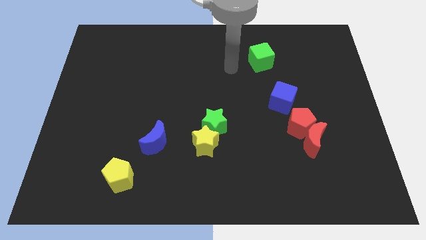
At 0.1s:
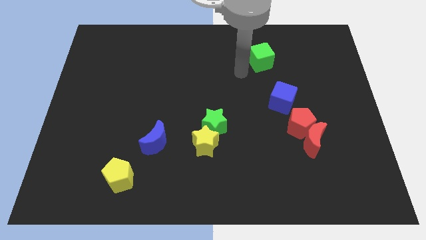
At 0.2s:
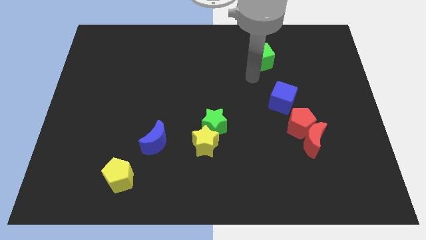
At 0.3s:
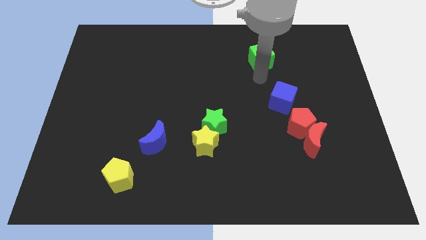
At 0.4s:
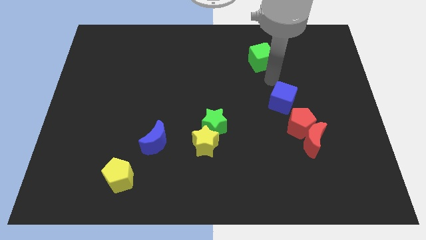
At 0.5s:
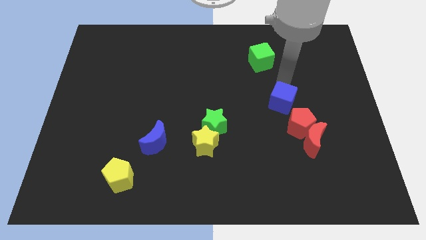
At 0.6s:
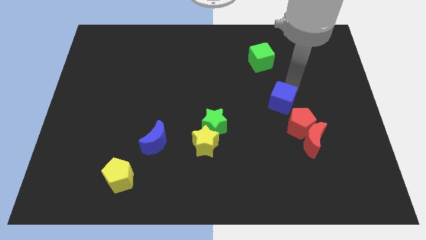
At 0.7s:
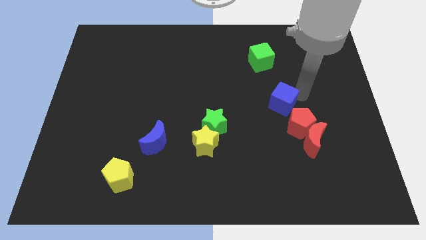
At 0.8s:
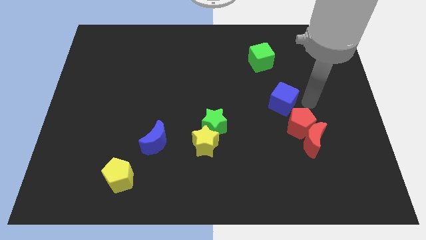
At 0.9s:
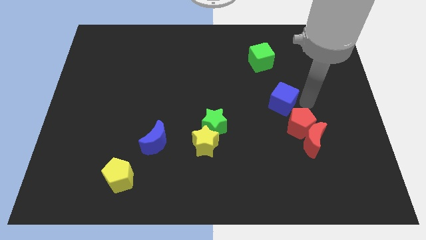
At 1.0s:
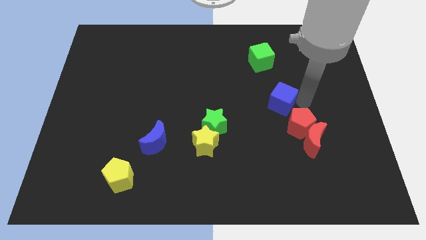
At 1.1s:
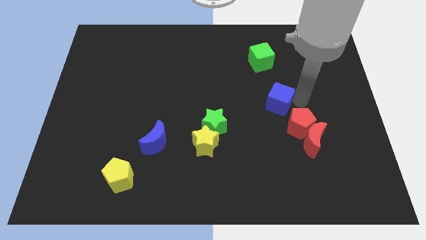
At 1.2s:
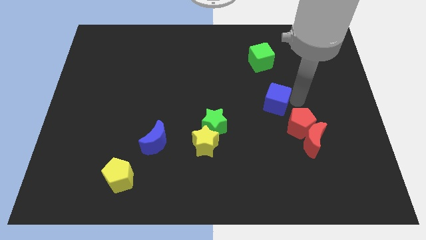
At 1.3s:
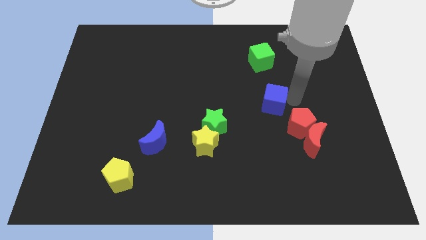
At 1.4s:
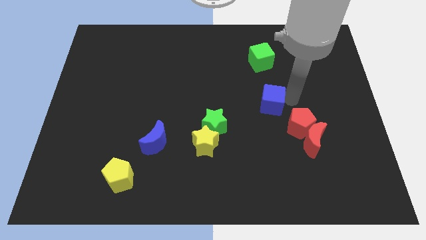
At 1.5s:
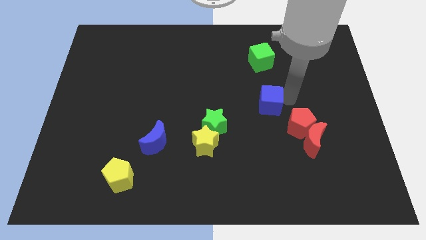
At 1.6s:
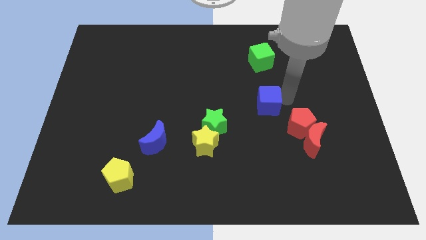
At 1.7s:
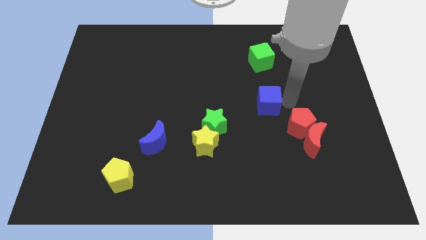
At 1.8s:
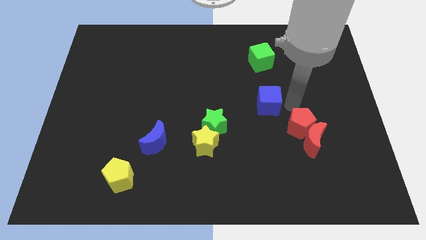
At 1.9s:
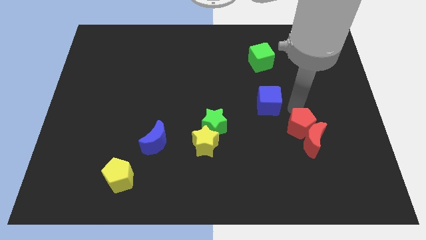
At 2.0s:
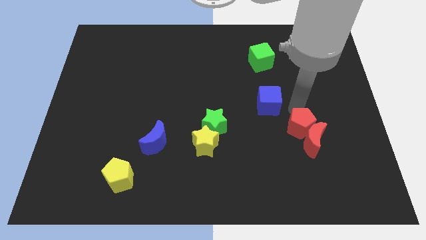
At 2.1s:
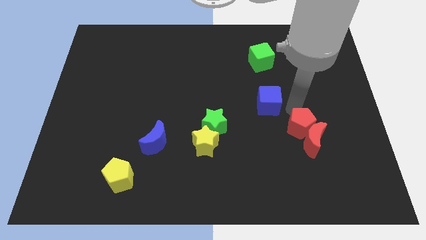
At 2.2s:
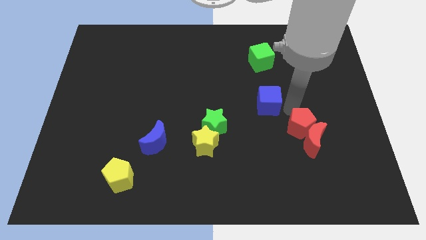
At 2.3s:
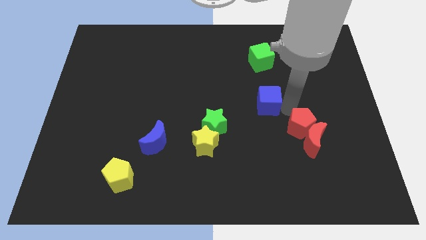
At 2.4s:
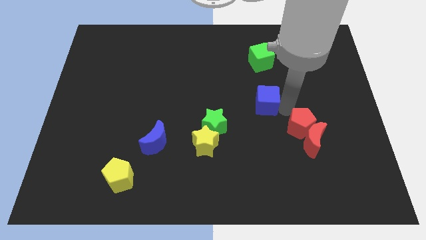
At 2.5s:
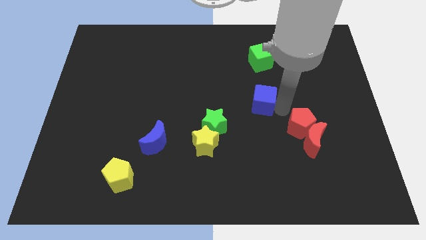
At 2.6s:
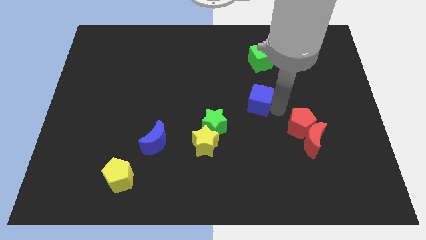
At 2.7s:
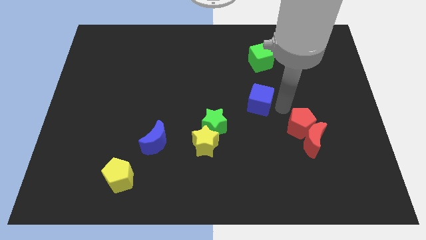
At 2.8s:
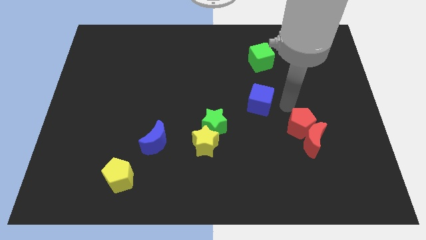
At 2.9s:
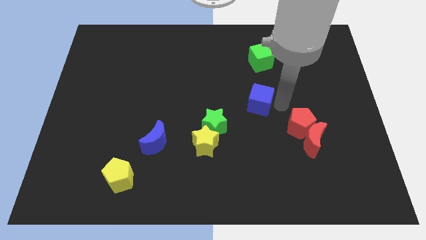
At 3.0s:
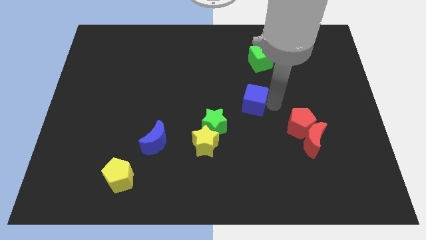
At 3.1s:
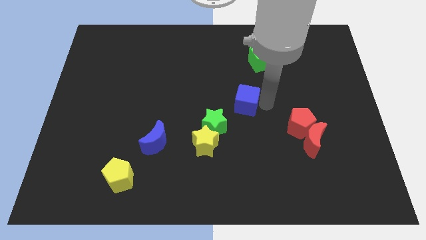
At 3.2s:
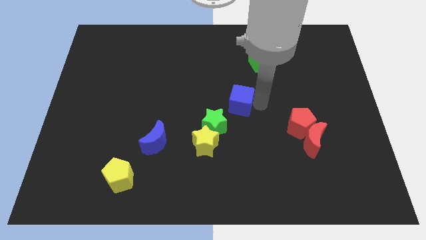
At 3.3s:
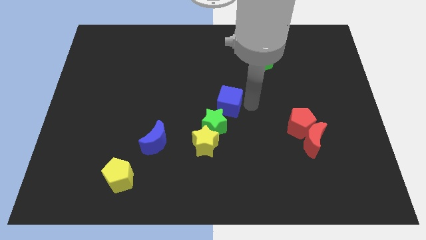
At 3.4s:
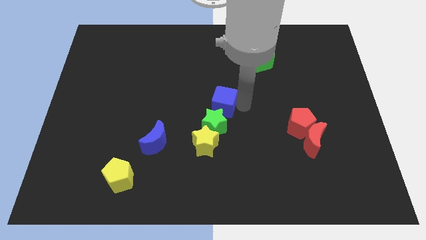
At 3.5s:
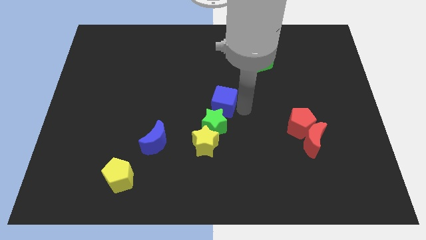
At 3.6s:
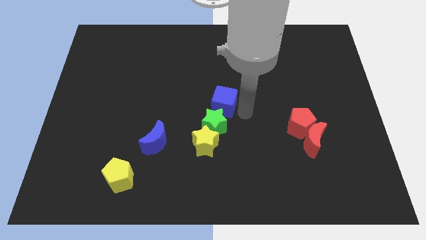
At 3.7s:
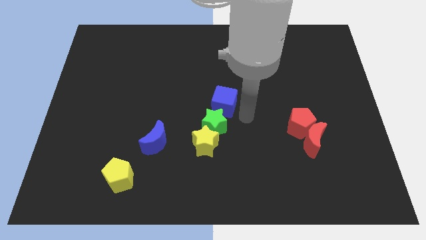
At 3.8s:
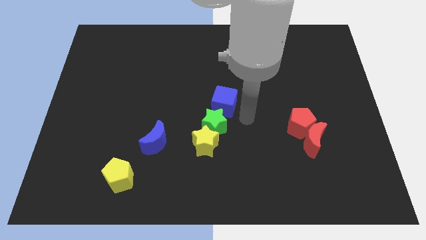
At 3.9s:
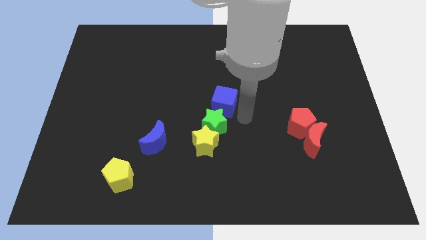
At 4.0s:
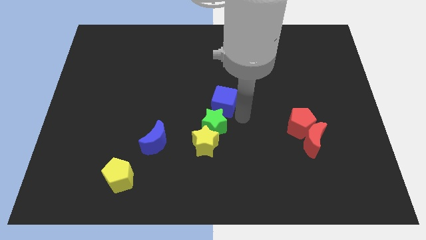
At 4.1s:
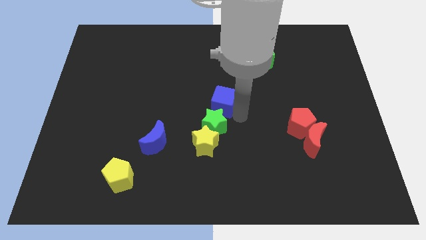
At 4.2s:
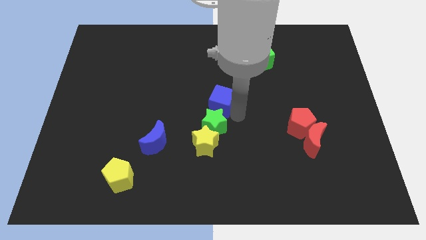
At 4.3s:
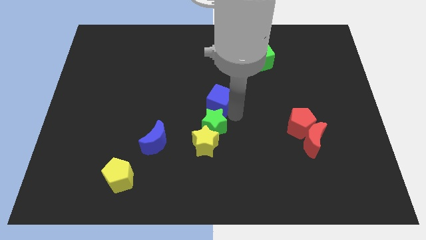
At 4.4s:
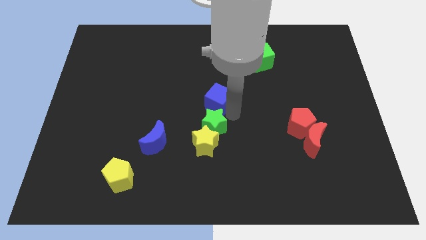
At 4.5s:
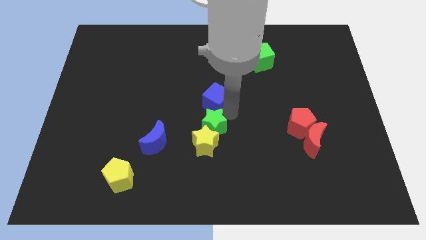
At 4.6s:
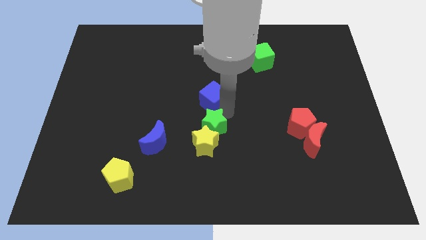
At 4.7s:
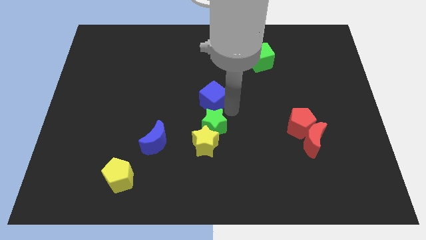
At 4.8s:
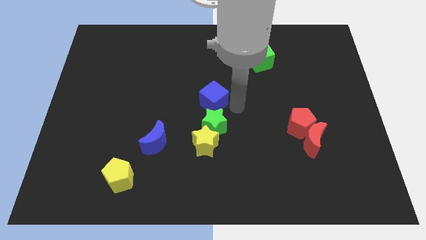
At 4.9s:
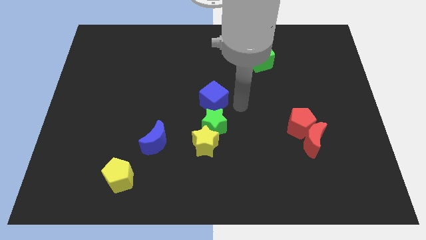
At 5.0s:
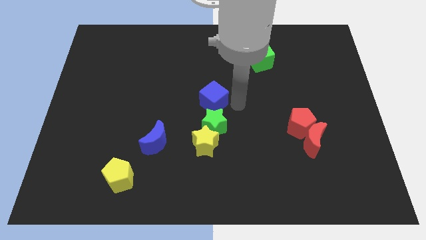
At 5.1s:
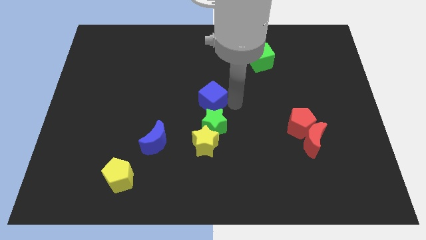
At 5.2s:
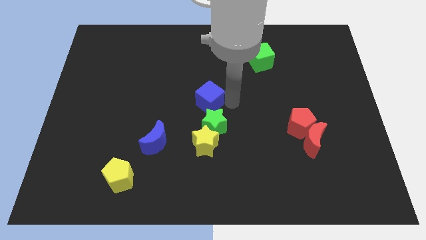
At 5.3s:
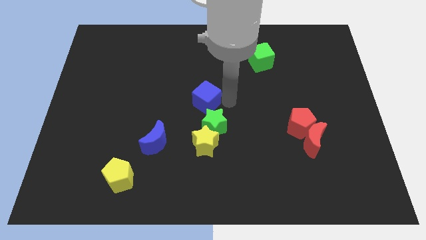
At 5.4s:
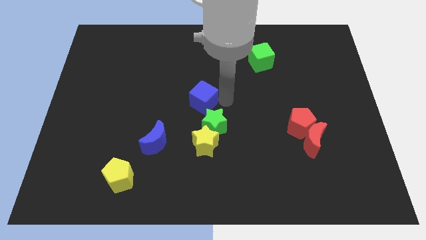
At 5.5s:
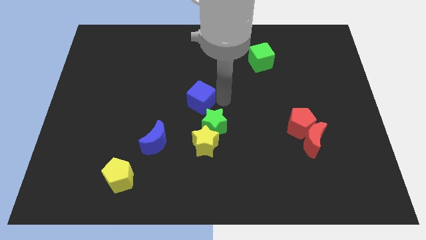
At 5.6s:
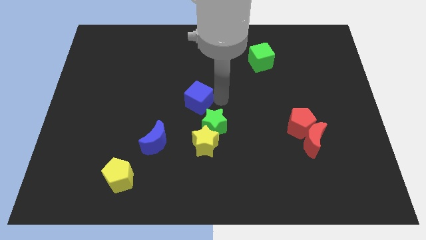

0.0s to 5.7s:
push the blue cube left

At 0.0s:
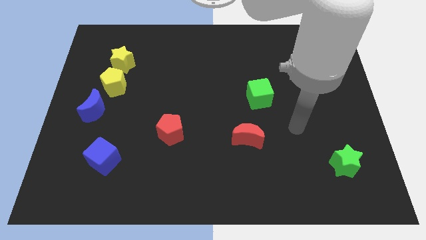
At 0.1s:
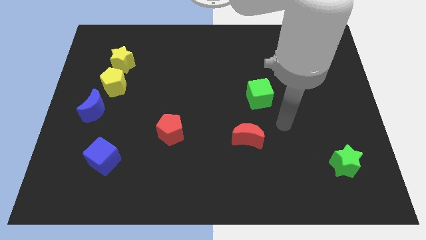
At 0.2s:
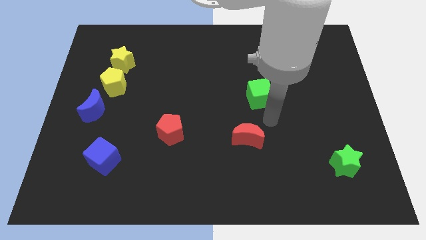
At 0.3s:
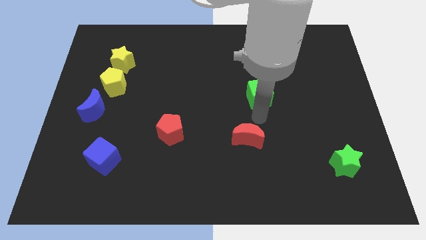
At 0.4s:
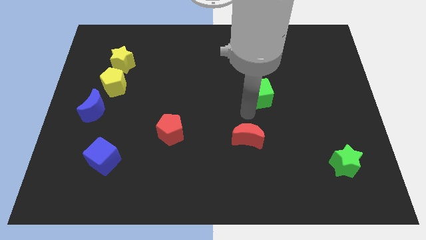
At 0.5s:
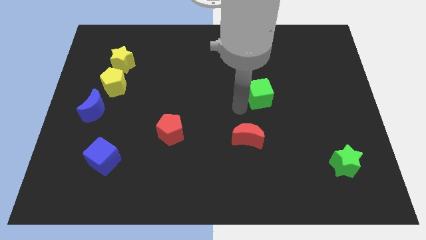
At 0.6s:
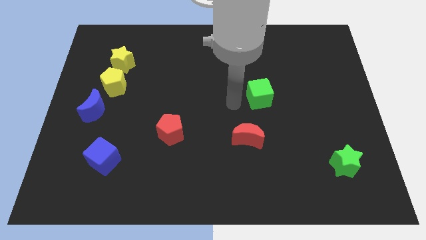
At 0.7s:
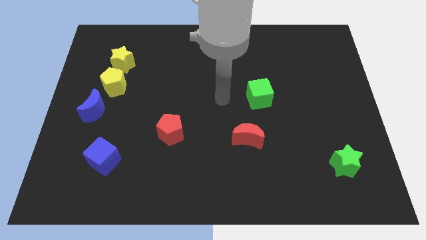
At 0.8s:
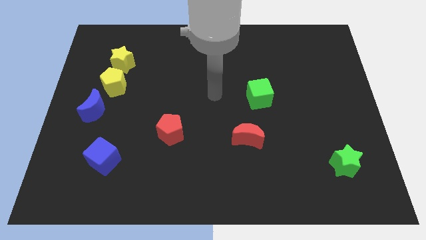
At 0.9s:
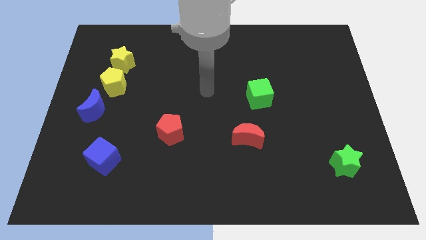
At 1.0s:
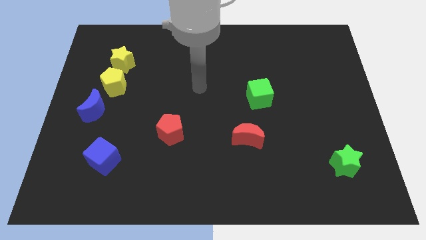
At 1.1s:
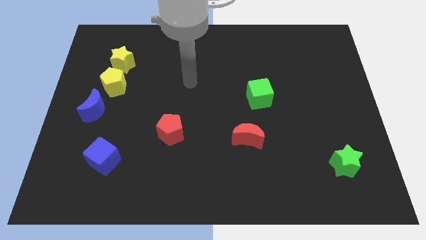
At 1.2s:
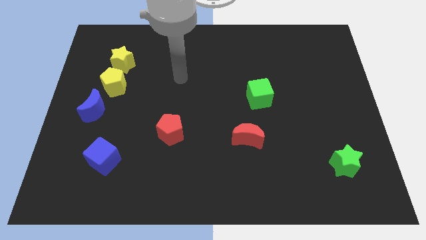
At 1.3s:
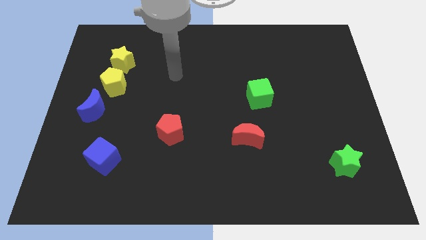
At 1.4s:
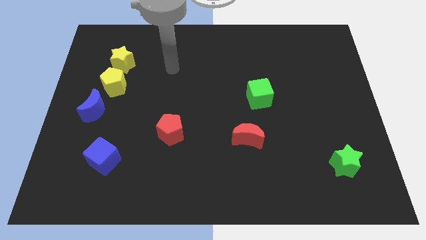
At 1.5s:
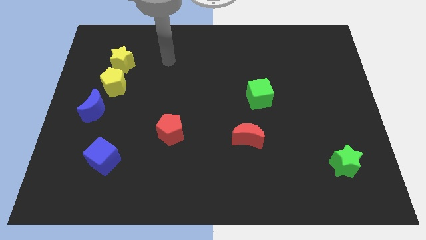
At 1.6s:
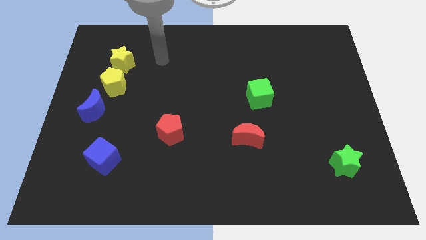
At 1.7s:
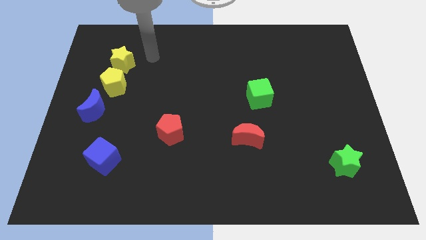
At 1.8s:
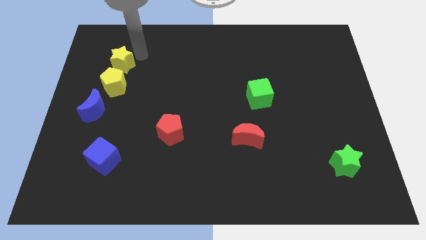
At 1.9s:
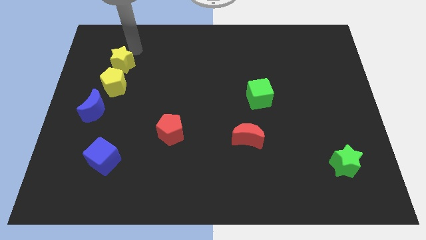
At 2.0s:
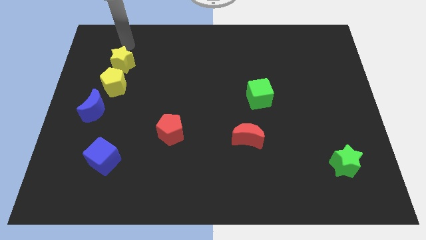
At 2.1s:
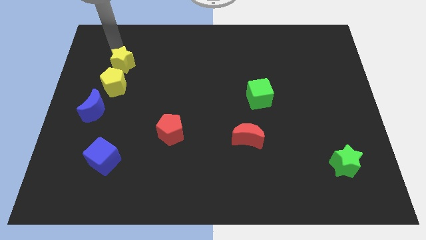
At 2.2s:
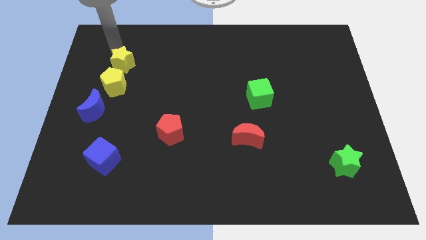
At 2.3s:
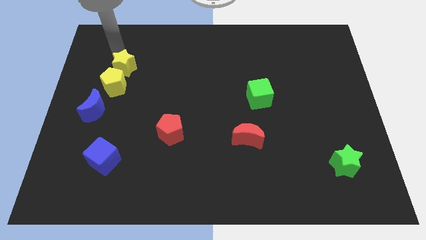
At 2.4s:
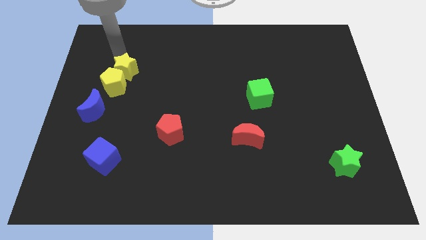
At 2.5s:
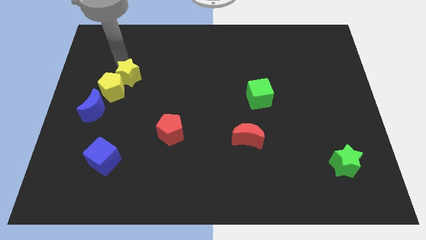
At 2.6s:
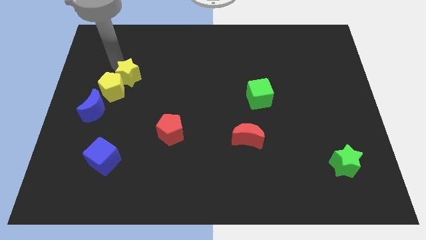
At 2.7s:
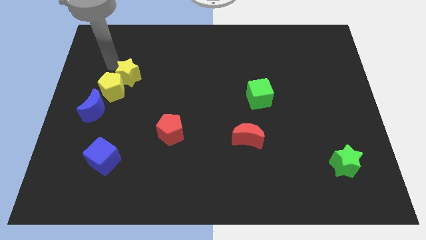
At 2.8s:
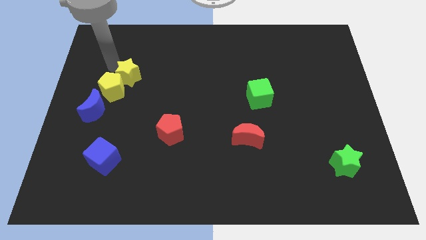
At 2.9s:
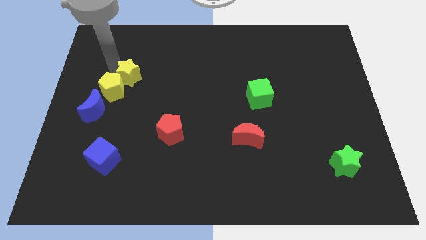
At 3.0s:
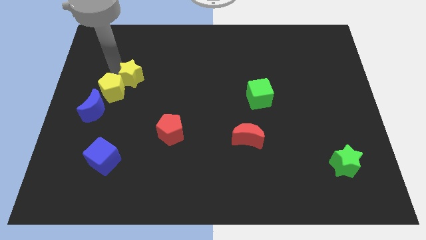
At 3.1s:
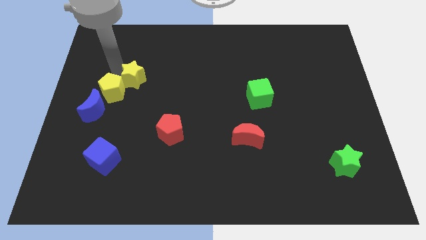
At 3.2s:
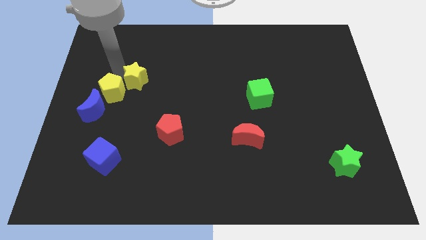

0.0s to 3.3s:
push the yellow star somewhat diagonally downwards and right
